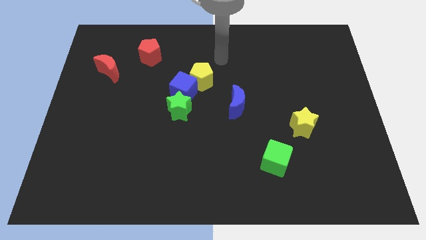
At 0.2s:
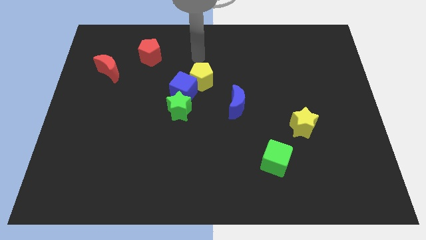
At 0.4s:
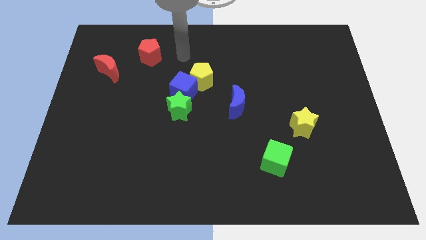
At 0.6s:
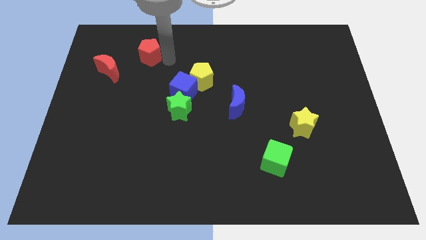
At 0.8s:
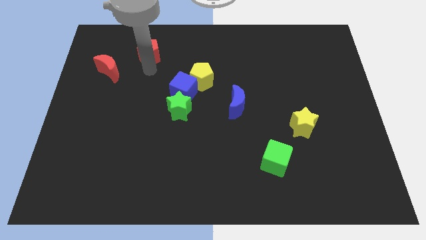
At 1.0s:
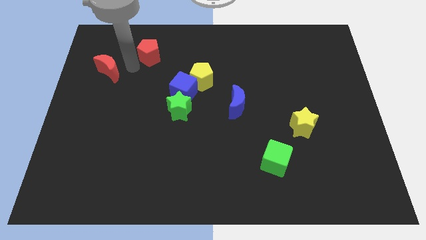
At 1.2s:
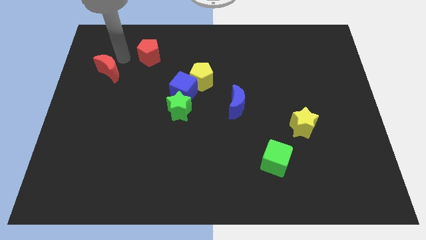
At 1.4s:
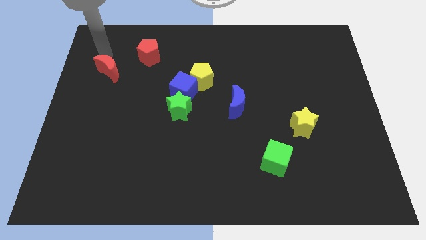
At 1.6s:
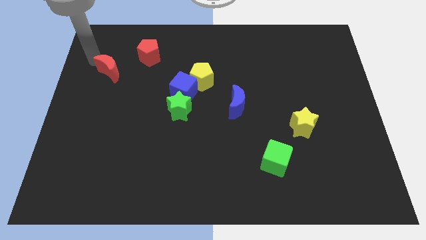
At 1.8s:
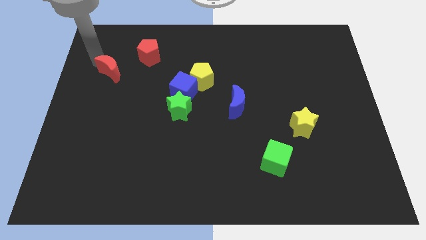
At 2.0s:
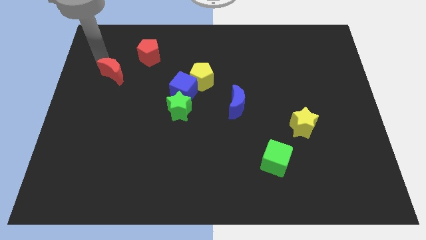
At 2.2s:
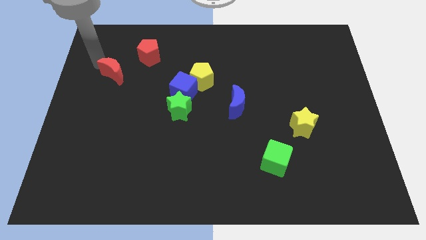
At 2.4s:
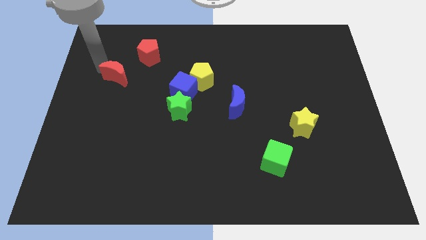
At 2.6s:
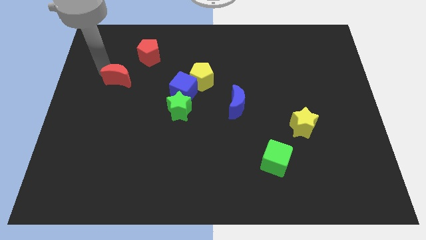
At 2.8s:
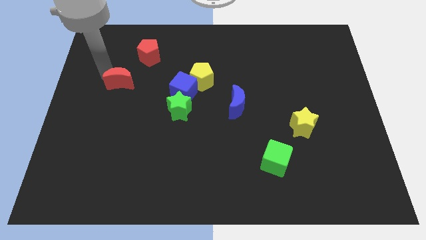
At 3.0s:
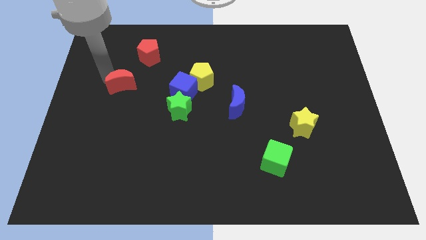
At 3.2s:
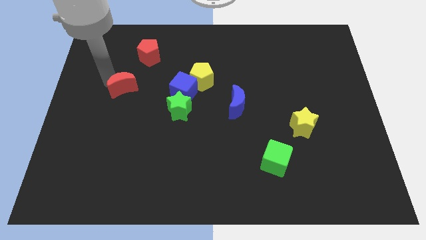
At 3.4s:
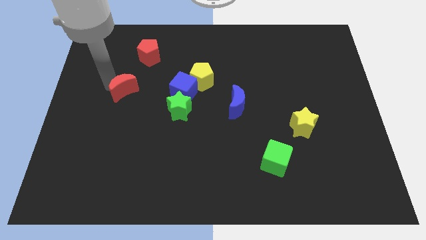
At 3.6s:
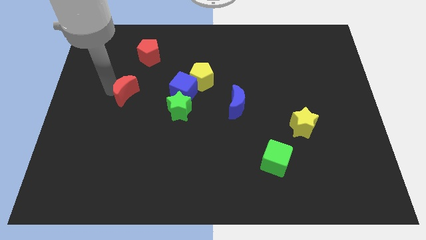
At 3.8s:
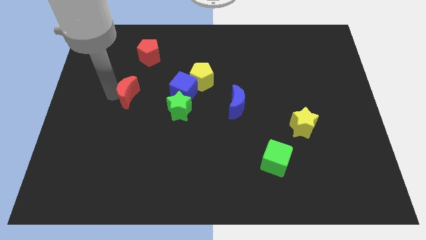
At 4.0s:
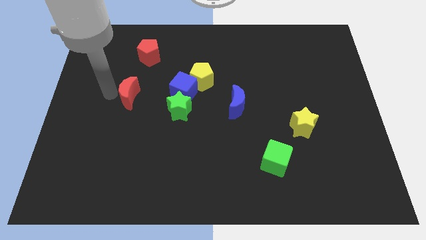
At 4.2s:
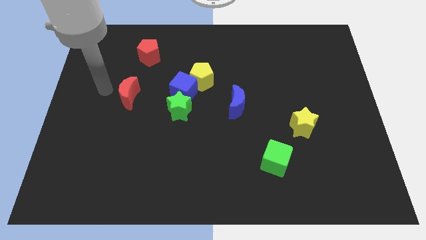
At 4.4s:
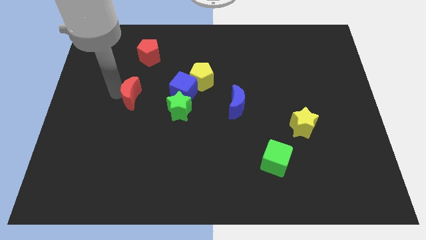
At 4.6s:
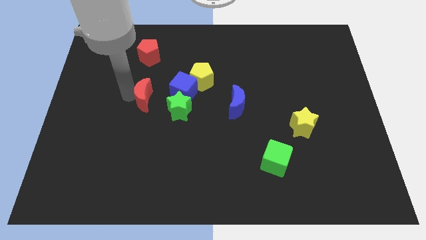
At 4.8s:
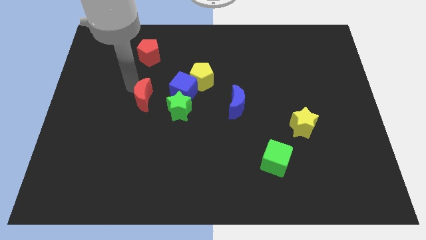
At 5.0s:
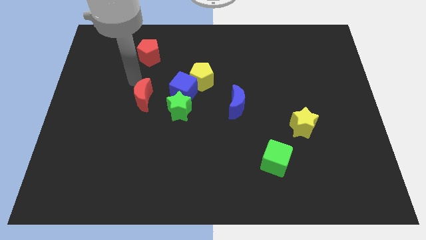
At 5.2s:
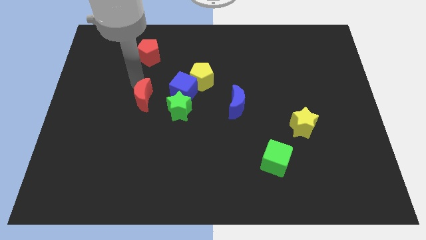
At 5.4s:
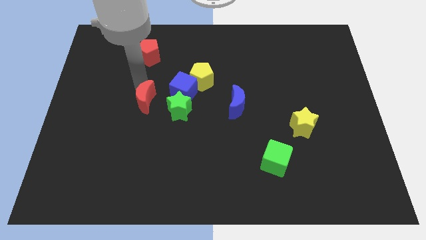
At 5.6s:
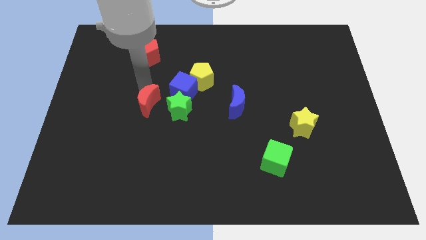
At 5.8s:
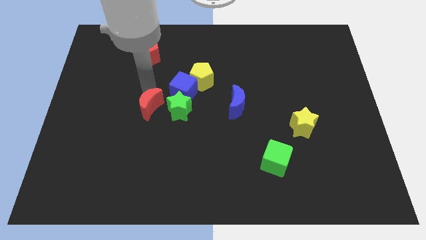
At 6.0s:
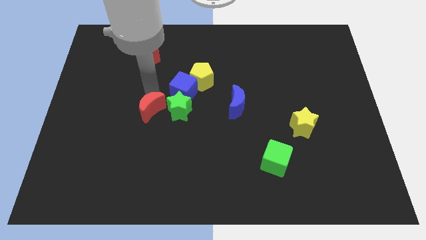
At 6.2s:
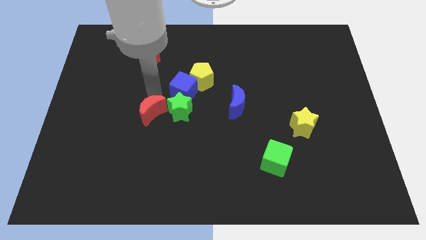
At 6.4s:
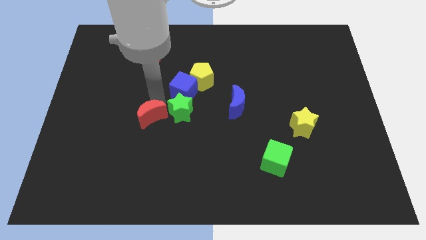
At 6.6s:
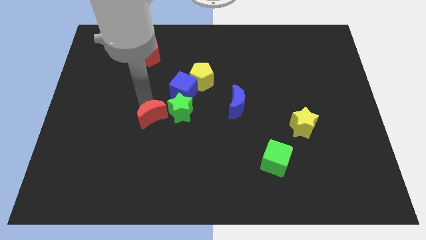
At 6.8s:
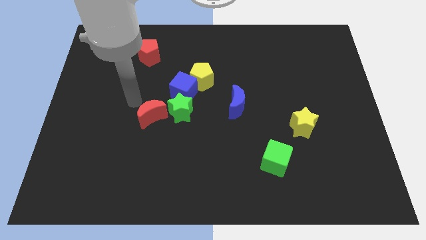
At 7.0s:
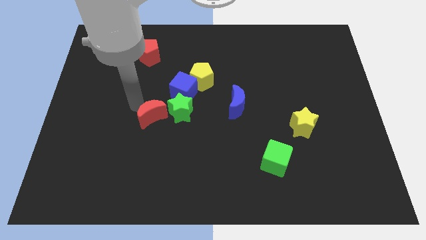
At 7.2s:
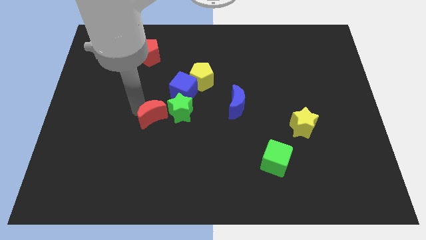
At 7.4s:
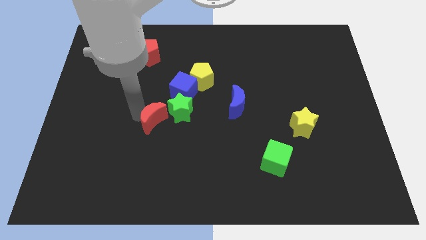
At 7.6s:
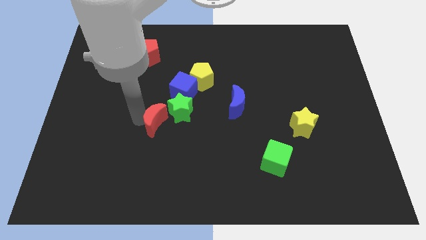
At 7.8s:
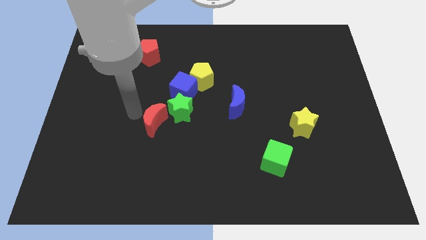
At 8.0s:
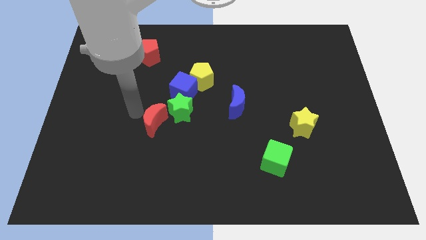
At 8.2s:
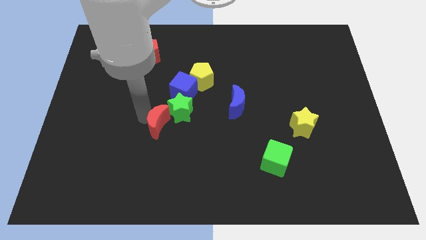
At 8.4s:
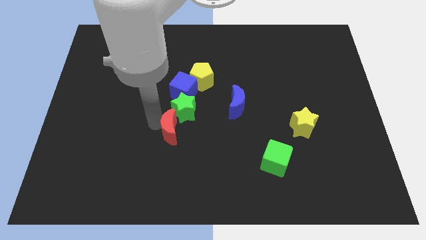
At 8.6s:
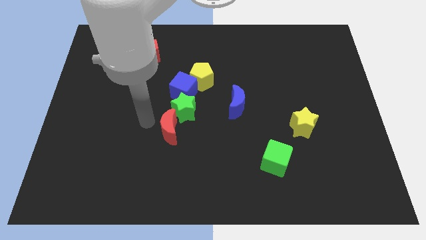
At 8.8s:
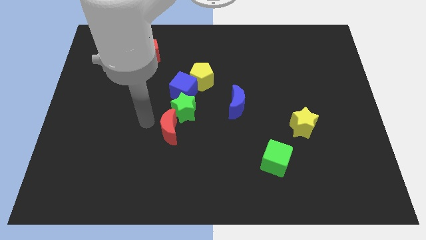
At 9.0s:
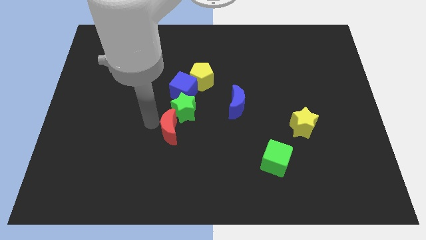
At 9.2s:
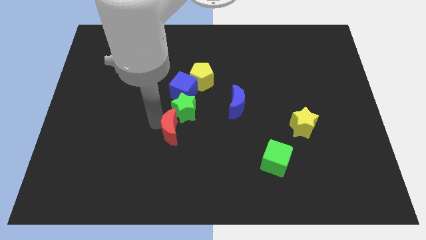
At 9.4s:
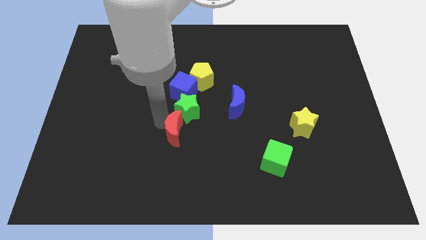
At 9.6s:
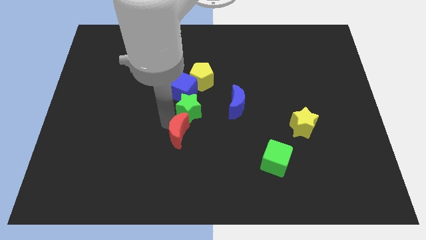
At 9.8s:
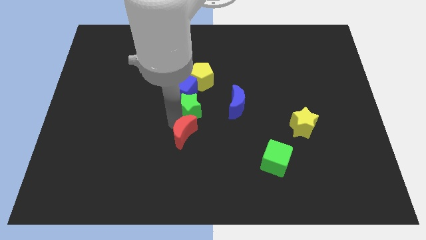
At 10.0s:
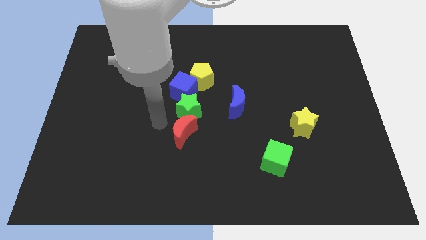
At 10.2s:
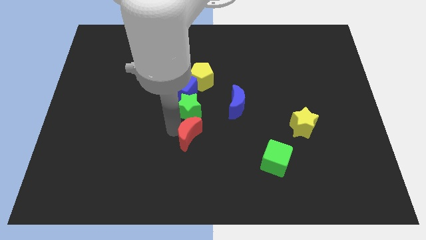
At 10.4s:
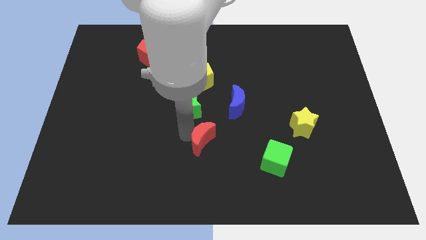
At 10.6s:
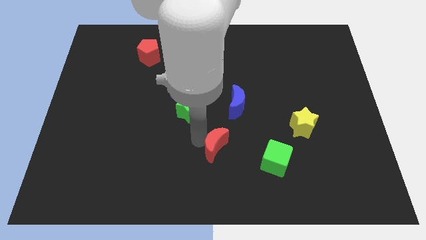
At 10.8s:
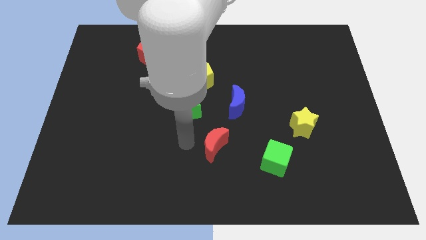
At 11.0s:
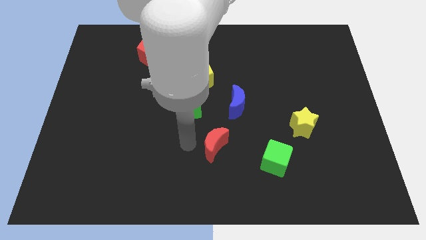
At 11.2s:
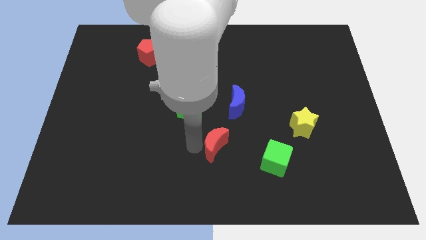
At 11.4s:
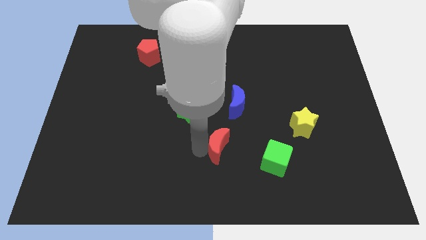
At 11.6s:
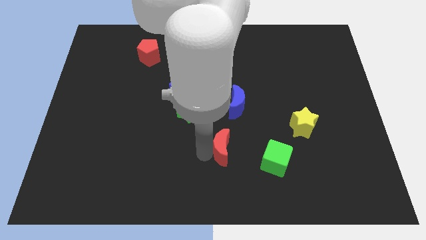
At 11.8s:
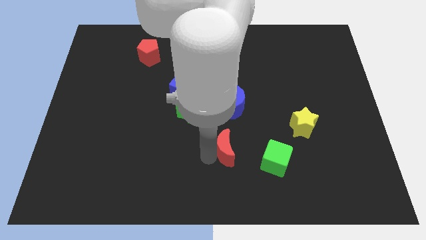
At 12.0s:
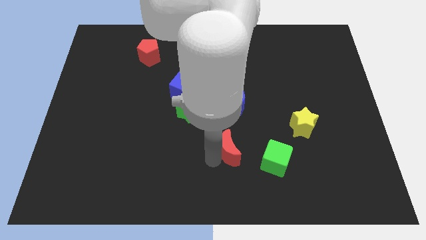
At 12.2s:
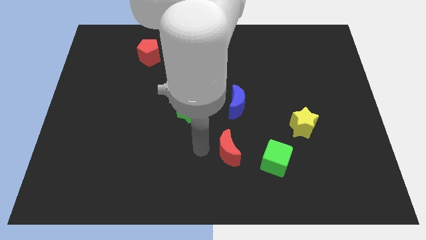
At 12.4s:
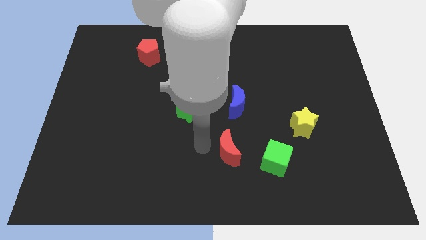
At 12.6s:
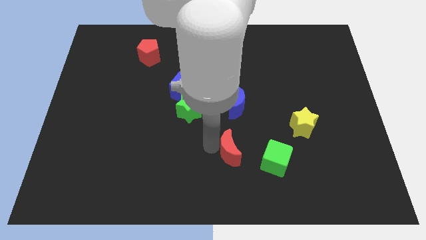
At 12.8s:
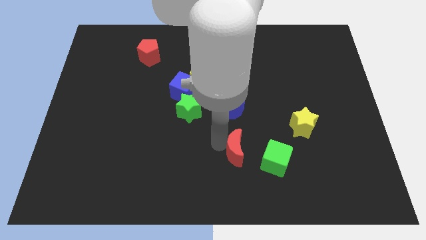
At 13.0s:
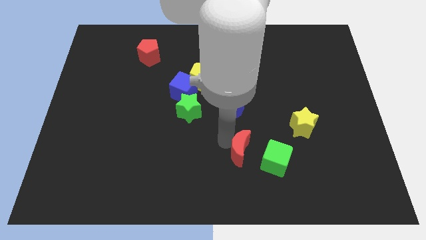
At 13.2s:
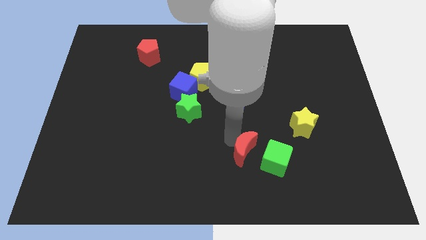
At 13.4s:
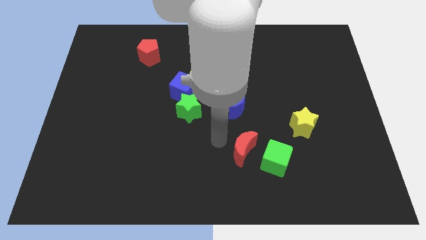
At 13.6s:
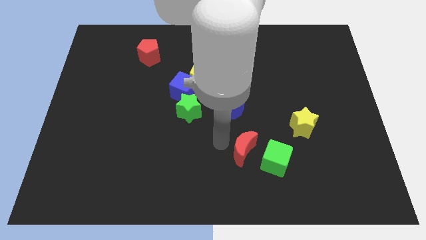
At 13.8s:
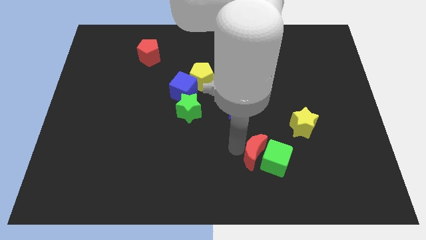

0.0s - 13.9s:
slide the red moon to the green cube

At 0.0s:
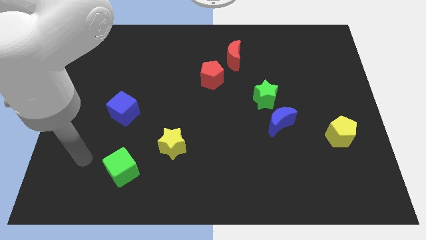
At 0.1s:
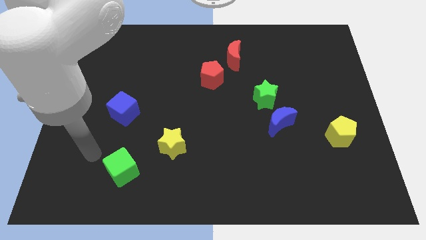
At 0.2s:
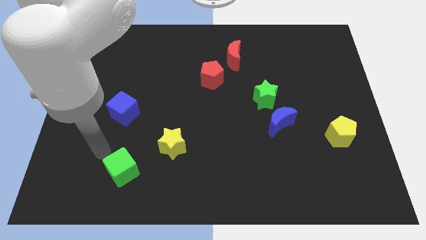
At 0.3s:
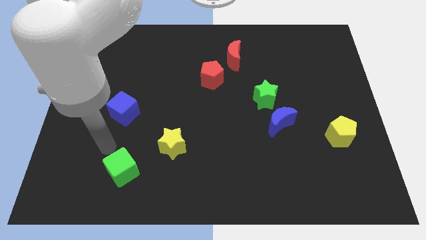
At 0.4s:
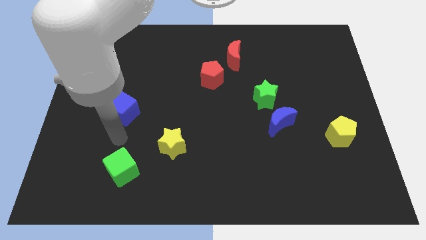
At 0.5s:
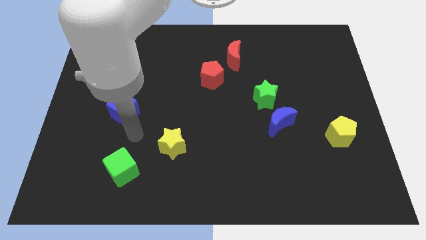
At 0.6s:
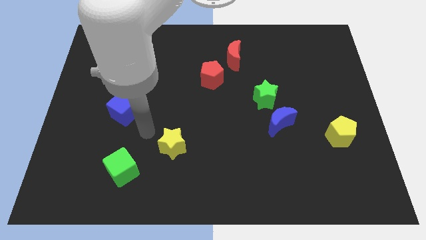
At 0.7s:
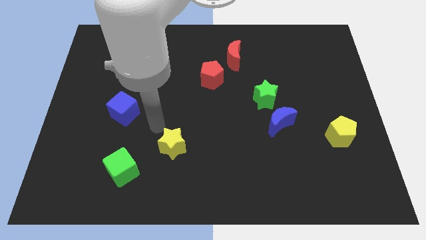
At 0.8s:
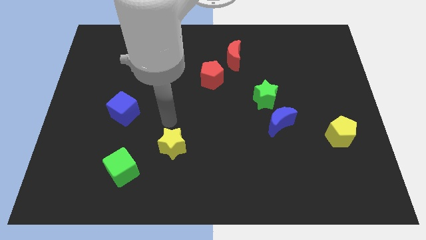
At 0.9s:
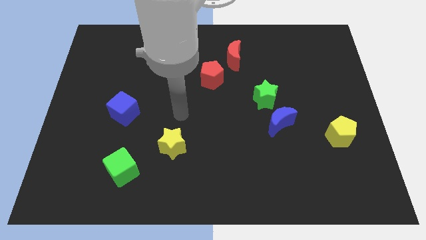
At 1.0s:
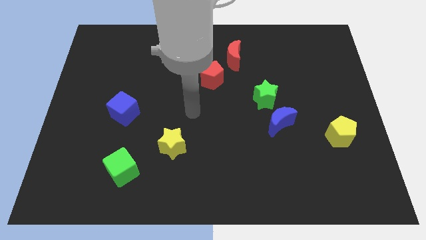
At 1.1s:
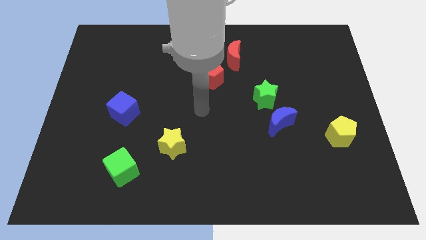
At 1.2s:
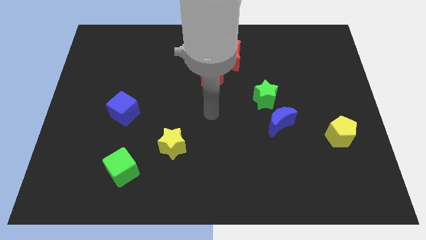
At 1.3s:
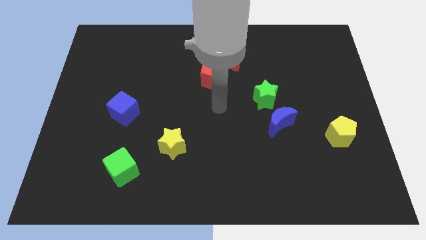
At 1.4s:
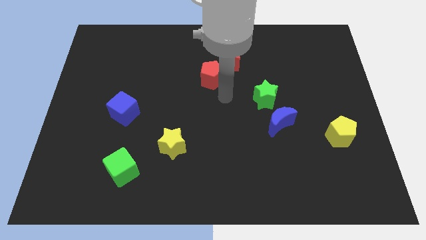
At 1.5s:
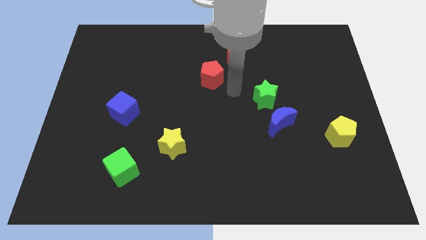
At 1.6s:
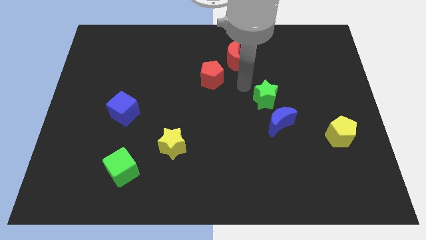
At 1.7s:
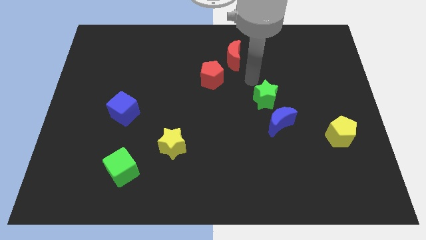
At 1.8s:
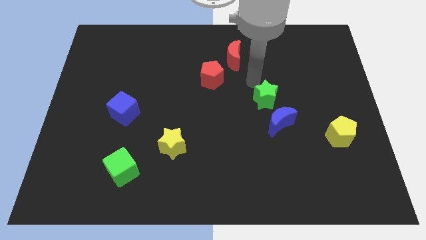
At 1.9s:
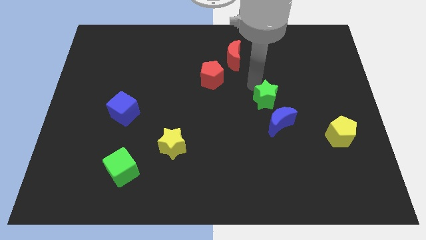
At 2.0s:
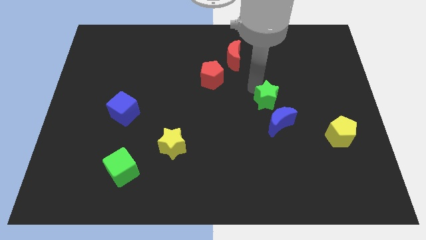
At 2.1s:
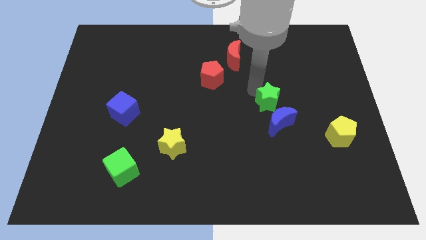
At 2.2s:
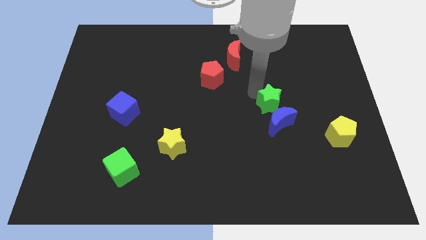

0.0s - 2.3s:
move the green star next to the blue moon
